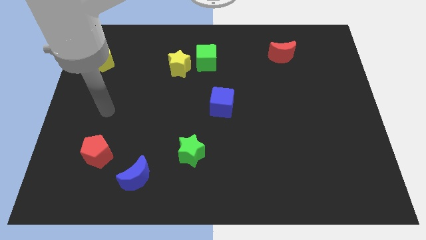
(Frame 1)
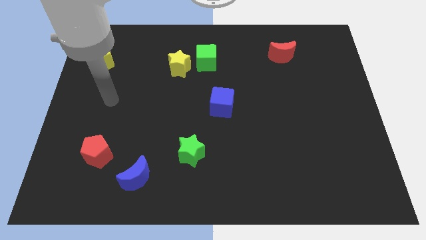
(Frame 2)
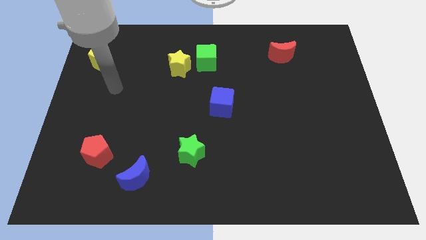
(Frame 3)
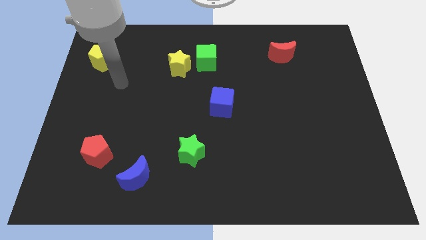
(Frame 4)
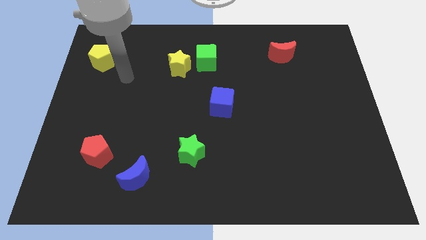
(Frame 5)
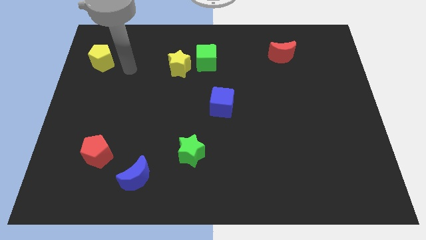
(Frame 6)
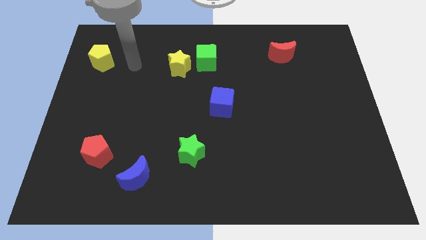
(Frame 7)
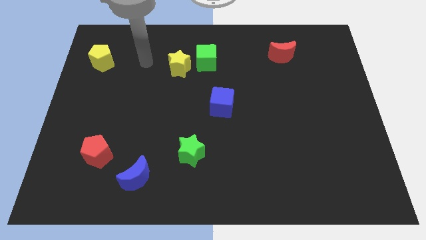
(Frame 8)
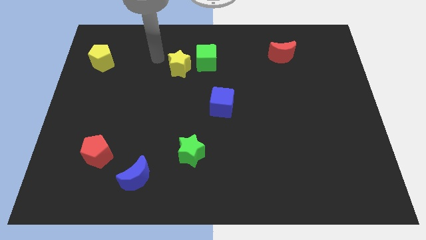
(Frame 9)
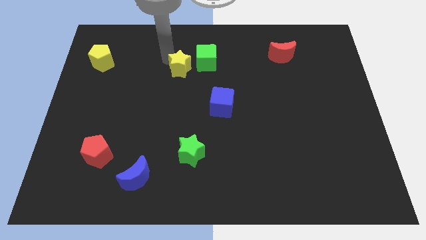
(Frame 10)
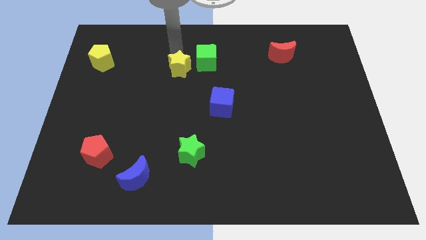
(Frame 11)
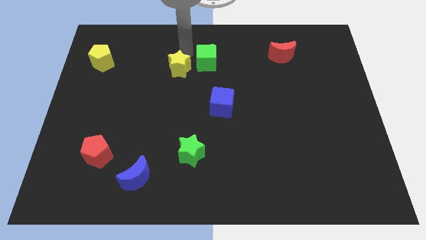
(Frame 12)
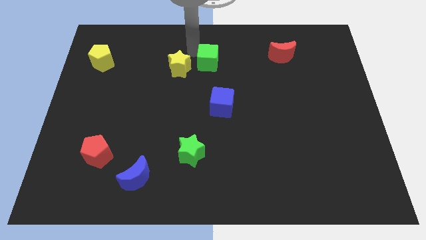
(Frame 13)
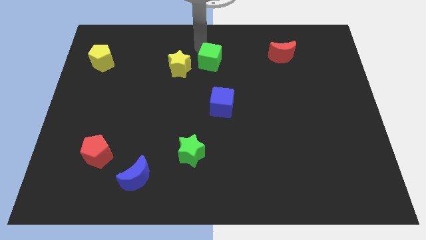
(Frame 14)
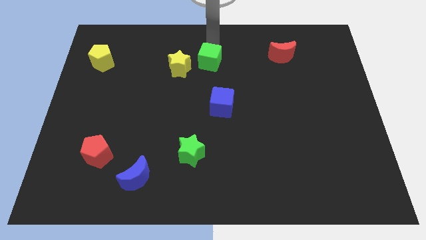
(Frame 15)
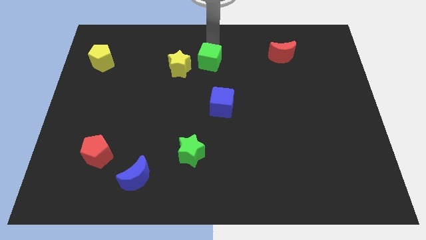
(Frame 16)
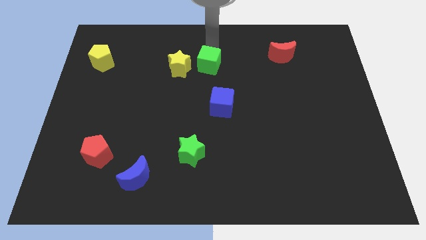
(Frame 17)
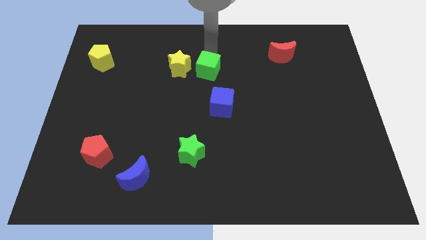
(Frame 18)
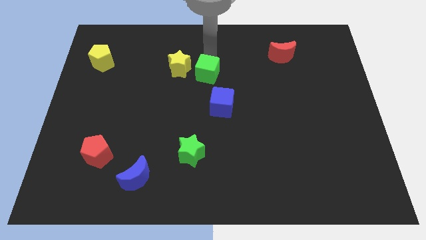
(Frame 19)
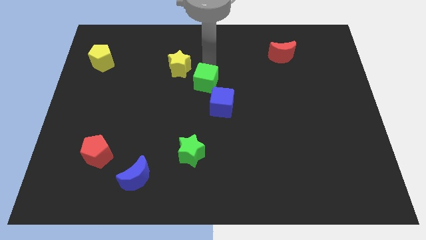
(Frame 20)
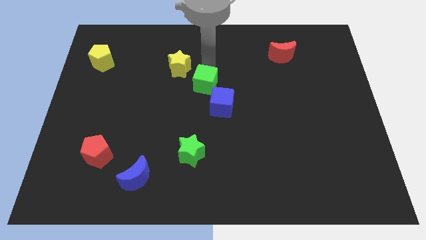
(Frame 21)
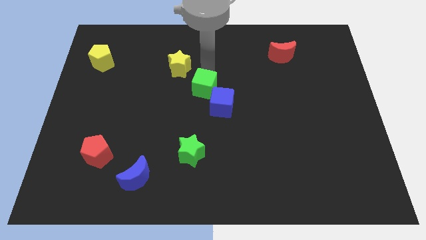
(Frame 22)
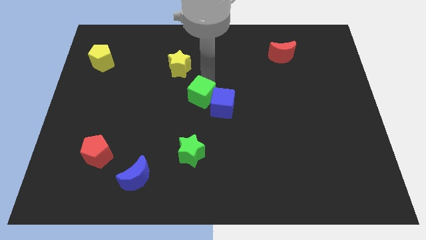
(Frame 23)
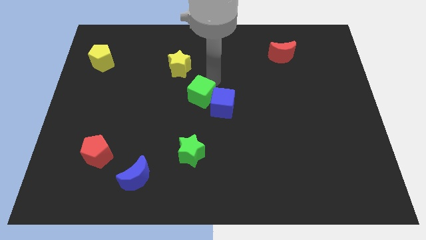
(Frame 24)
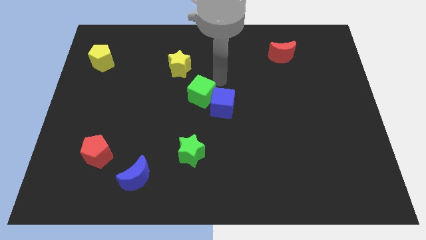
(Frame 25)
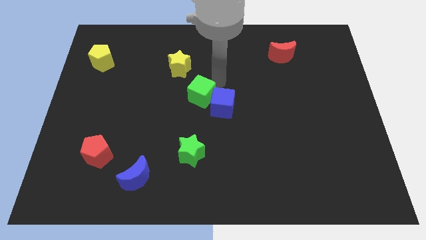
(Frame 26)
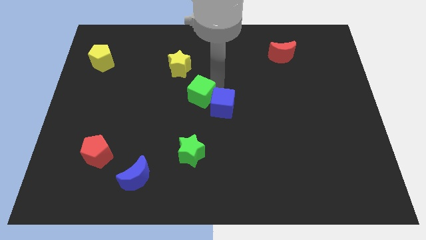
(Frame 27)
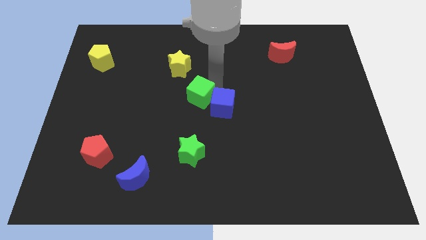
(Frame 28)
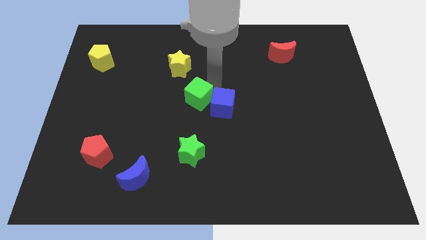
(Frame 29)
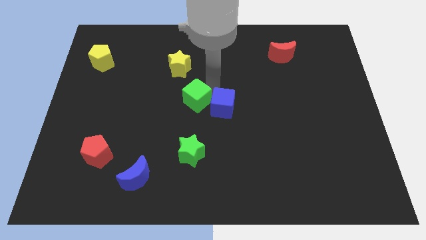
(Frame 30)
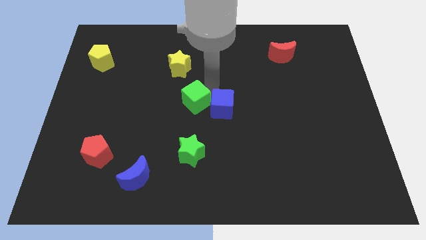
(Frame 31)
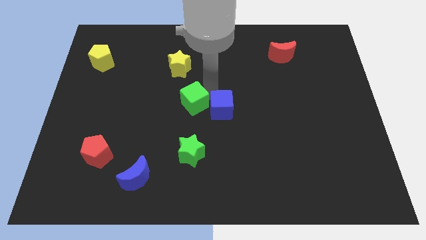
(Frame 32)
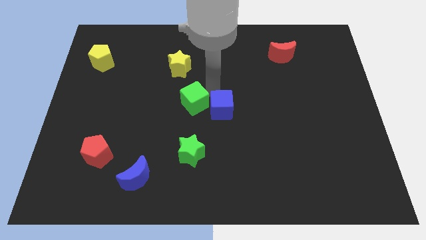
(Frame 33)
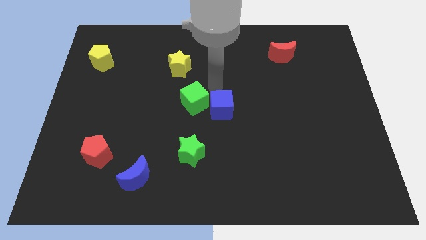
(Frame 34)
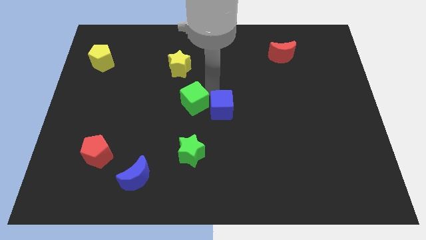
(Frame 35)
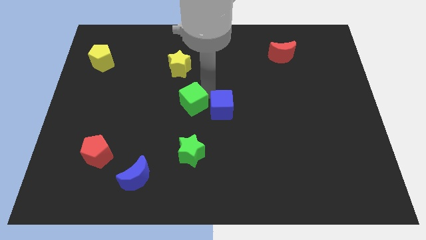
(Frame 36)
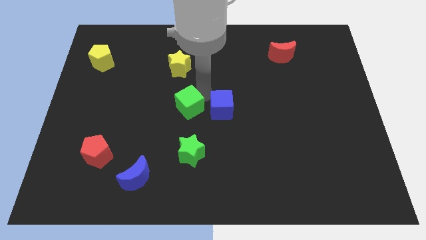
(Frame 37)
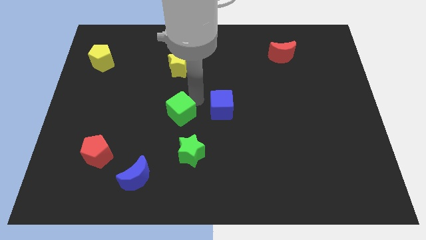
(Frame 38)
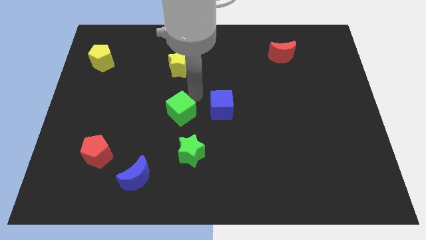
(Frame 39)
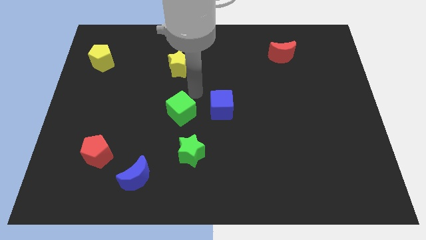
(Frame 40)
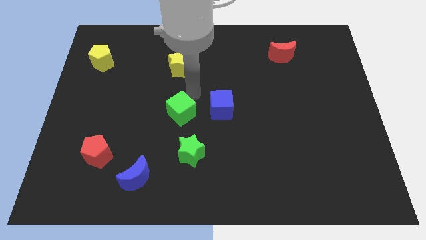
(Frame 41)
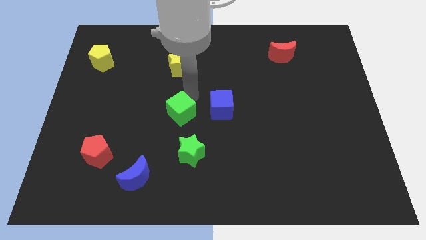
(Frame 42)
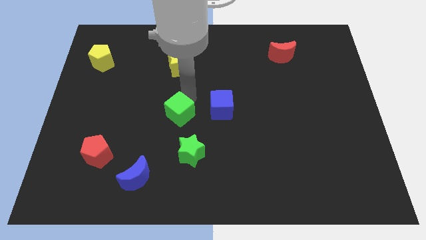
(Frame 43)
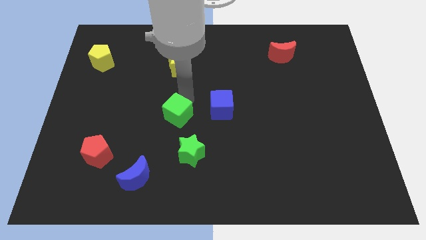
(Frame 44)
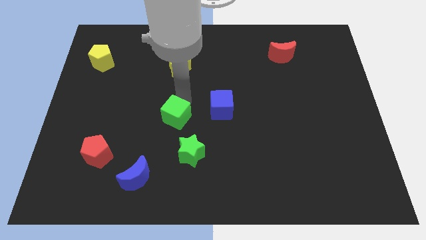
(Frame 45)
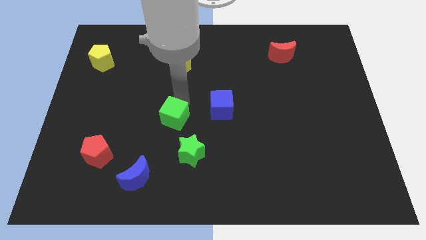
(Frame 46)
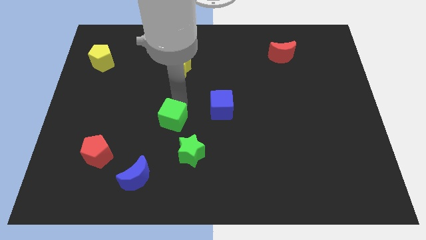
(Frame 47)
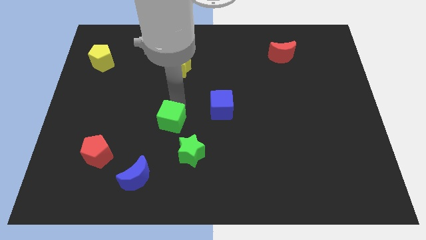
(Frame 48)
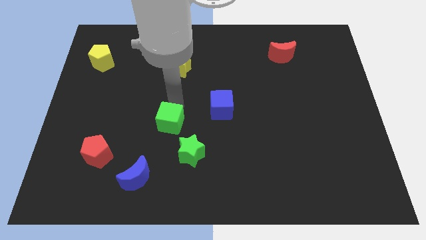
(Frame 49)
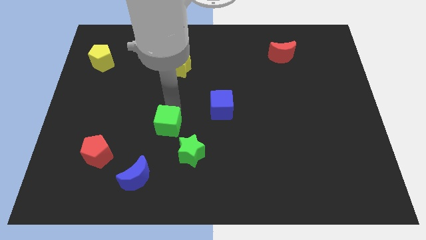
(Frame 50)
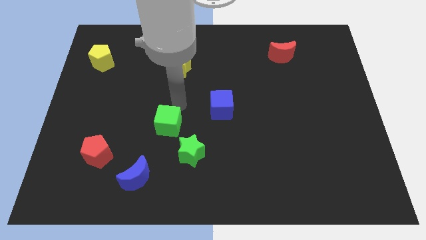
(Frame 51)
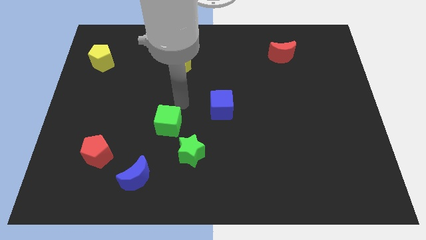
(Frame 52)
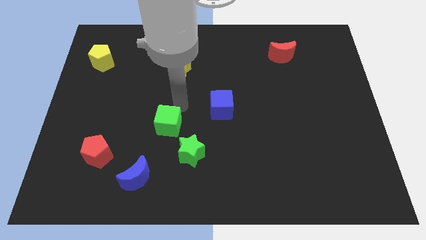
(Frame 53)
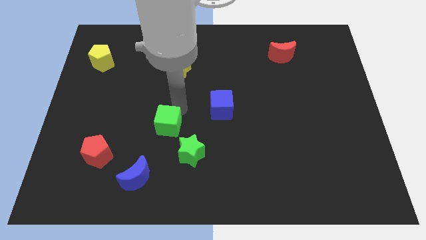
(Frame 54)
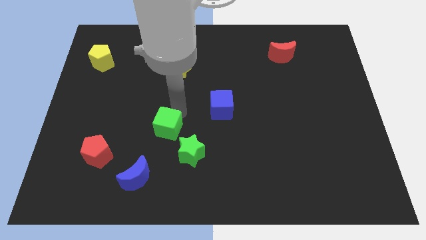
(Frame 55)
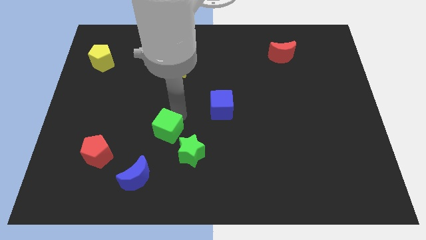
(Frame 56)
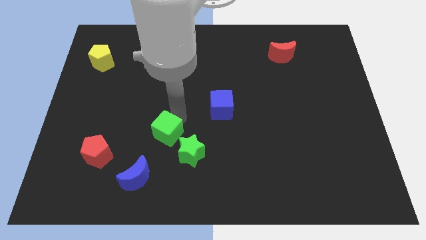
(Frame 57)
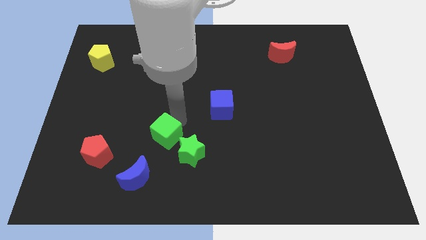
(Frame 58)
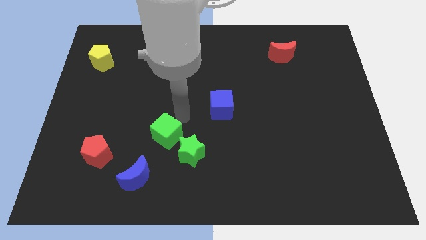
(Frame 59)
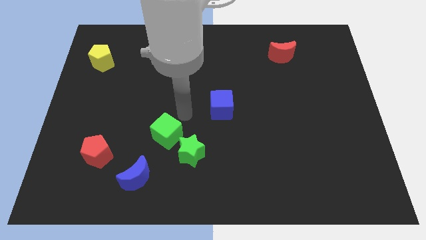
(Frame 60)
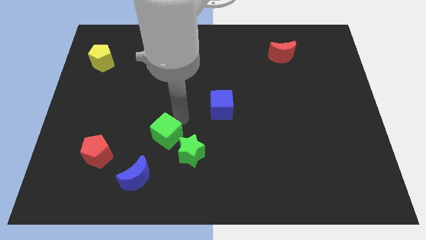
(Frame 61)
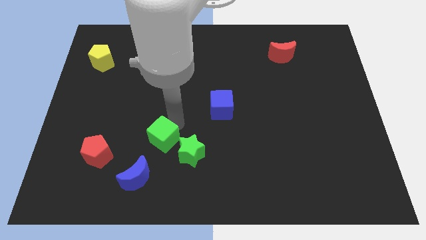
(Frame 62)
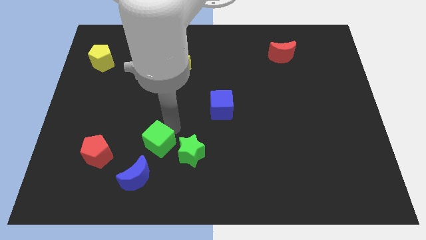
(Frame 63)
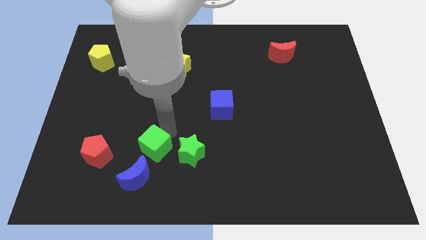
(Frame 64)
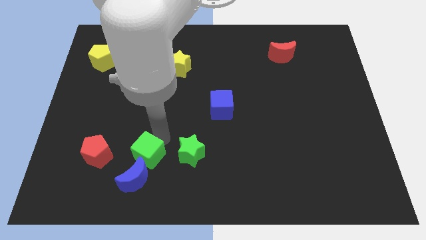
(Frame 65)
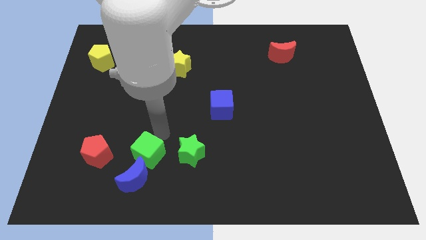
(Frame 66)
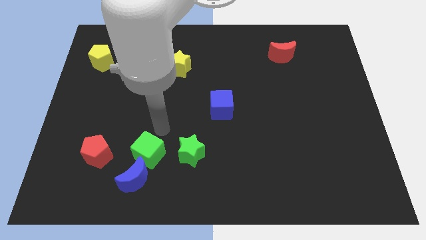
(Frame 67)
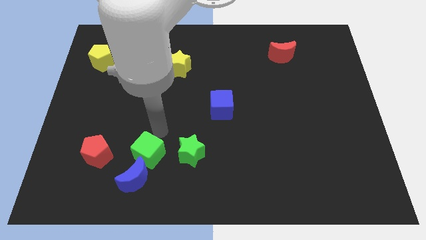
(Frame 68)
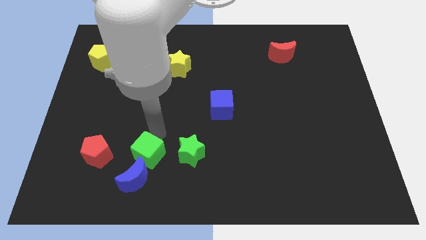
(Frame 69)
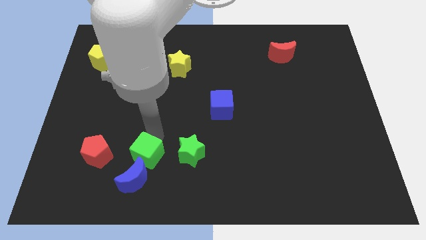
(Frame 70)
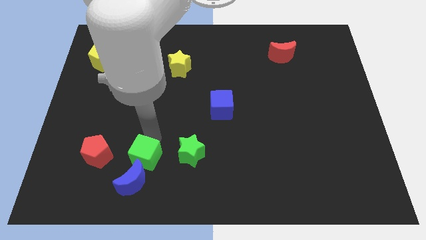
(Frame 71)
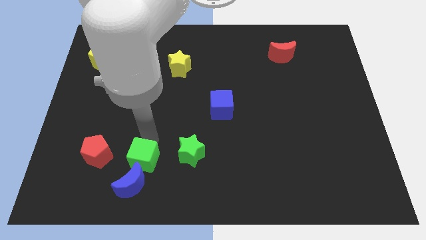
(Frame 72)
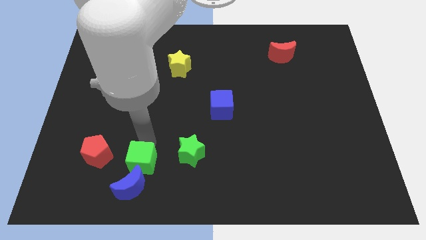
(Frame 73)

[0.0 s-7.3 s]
put the green cube to the blue moon

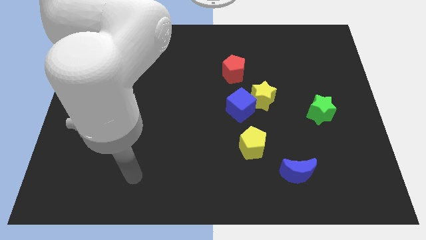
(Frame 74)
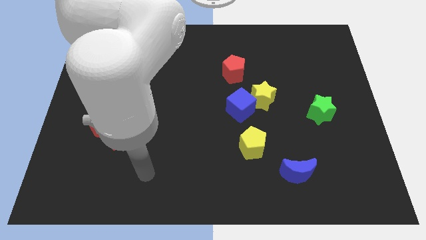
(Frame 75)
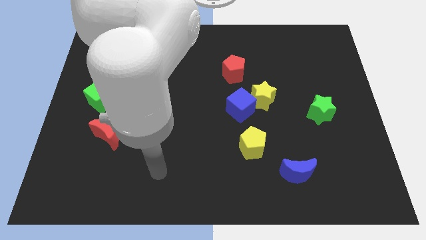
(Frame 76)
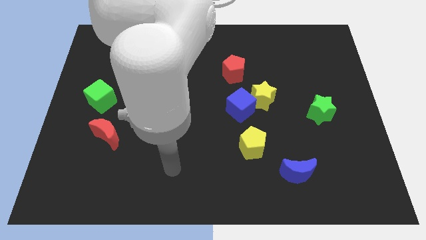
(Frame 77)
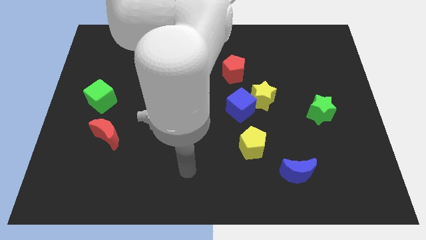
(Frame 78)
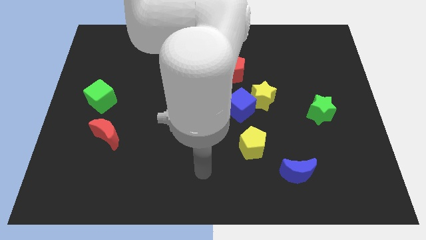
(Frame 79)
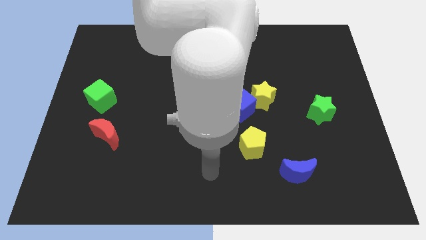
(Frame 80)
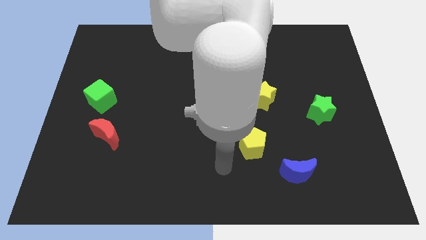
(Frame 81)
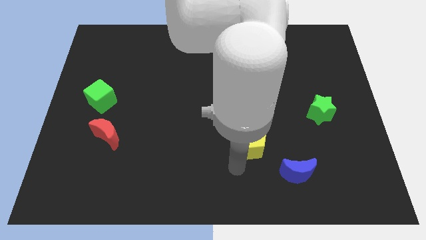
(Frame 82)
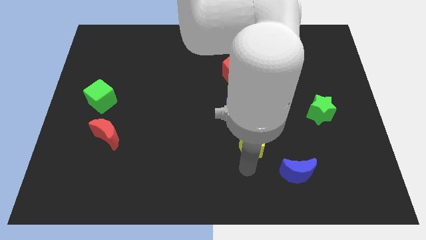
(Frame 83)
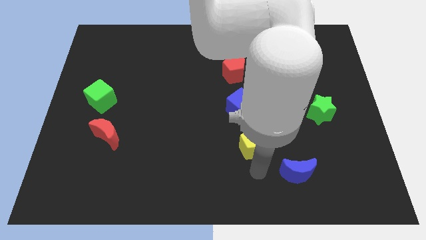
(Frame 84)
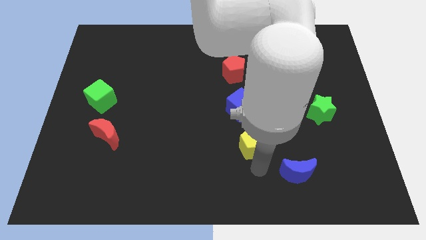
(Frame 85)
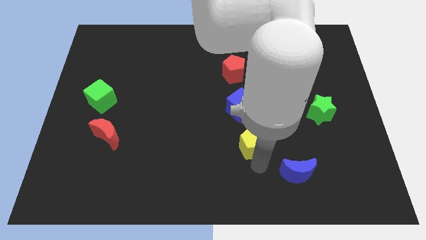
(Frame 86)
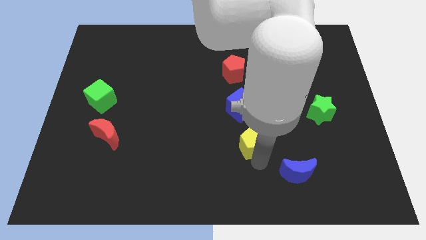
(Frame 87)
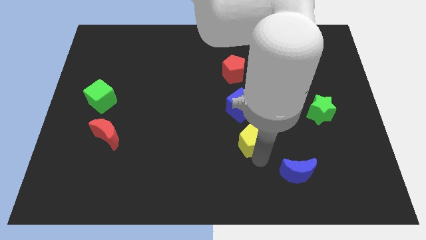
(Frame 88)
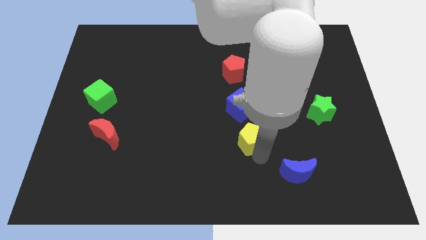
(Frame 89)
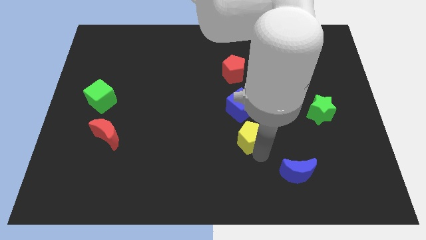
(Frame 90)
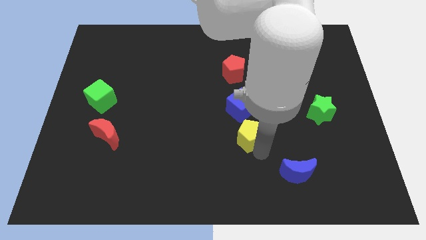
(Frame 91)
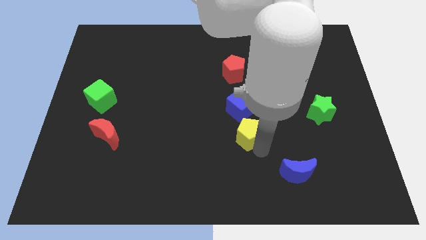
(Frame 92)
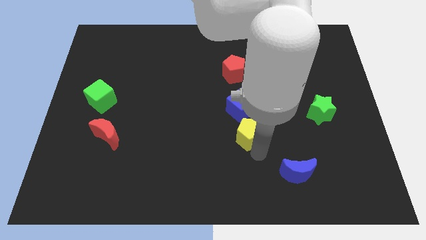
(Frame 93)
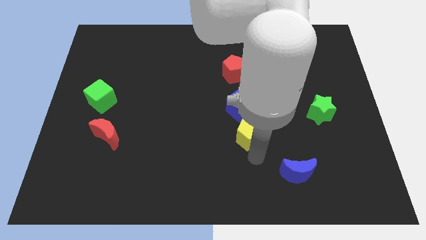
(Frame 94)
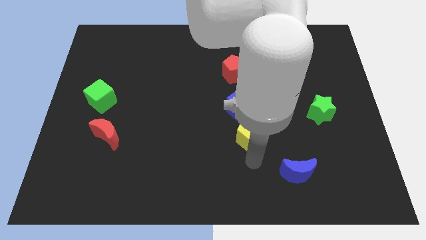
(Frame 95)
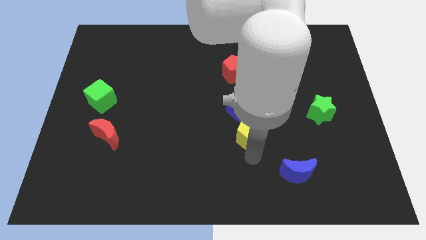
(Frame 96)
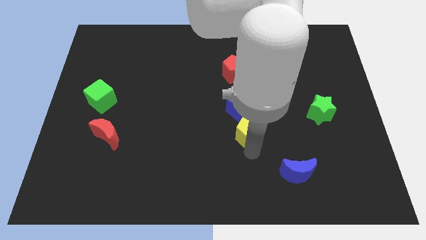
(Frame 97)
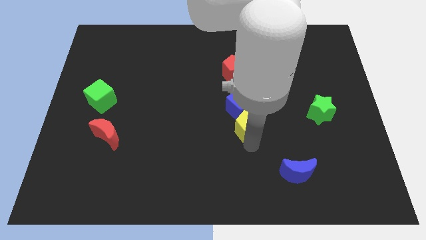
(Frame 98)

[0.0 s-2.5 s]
slide the yellow pentagon towards the blue cube
